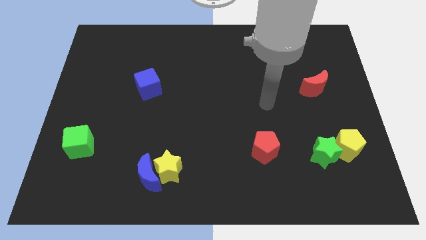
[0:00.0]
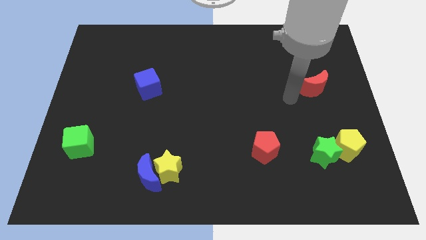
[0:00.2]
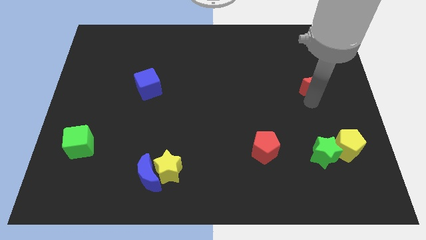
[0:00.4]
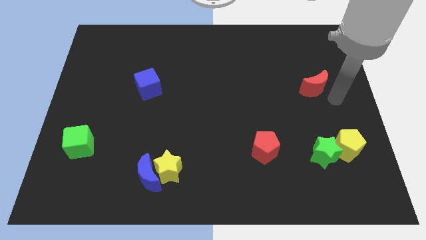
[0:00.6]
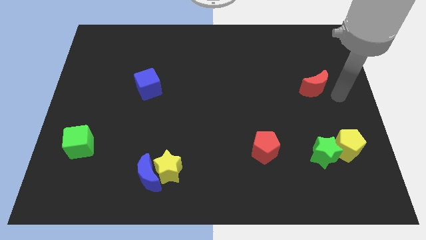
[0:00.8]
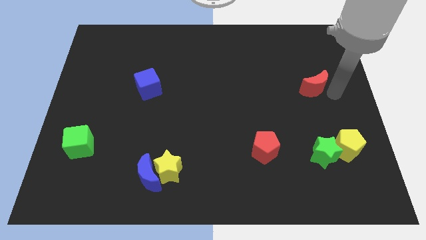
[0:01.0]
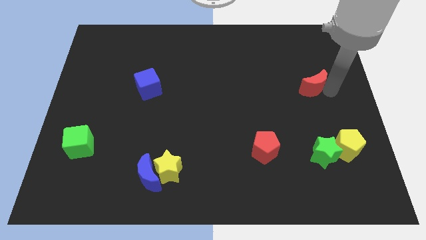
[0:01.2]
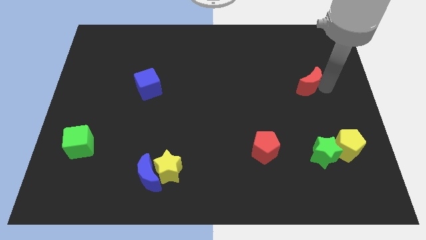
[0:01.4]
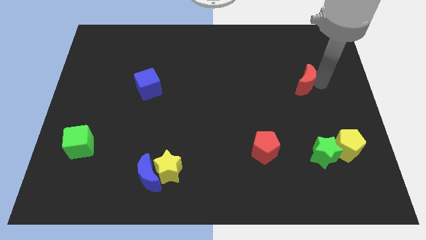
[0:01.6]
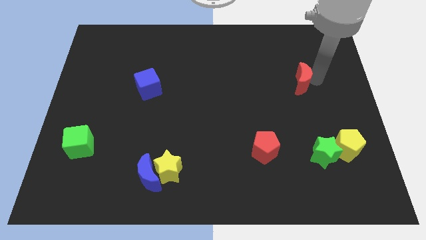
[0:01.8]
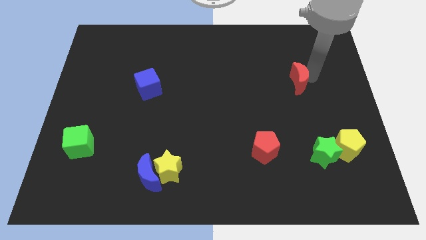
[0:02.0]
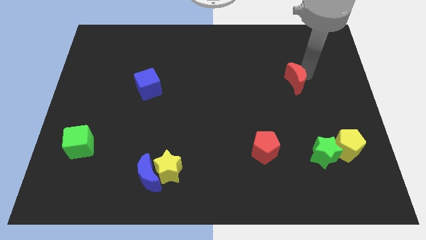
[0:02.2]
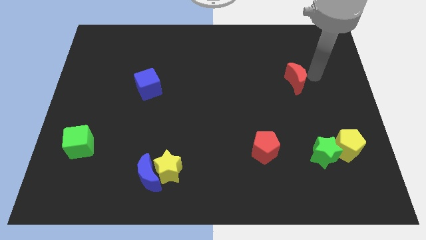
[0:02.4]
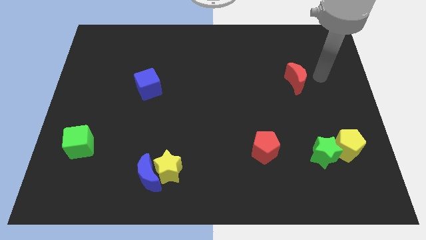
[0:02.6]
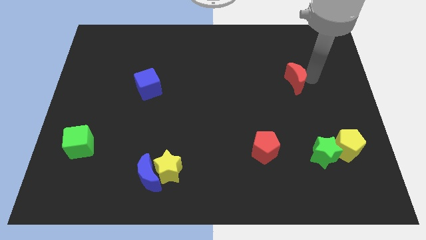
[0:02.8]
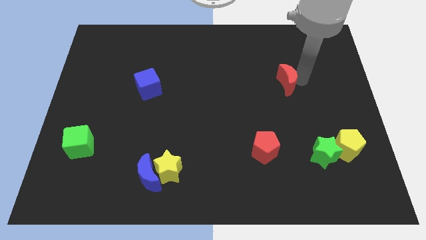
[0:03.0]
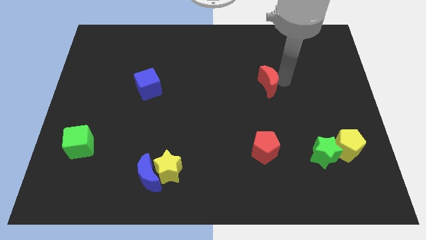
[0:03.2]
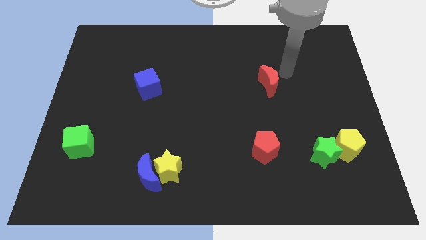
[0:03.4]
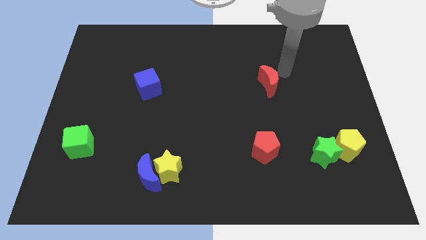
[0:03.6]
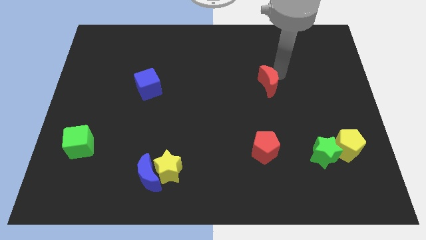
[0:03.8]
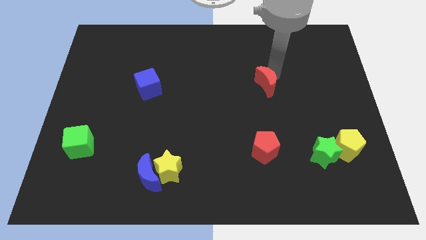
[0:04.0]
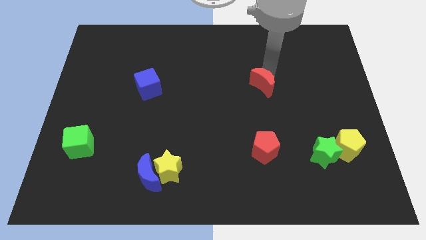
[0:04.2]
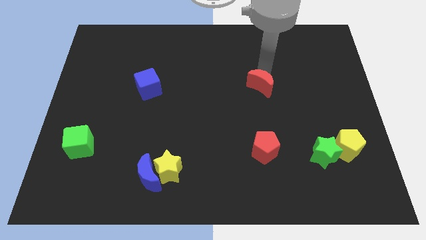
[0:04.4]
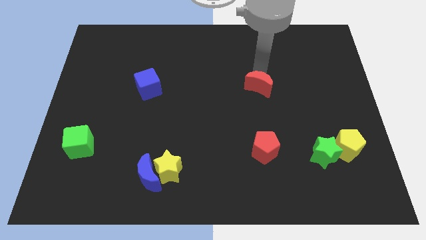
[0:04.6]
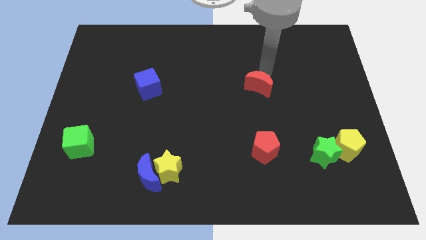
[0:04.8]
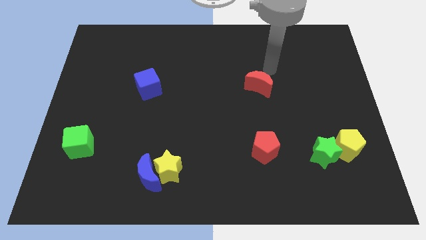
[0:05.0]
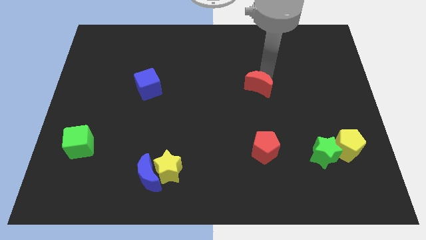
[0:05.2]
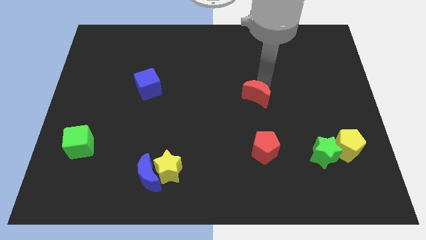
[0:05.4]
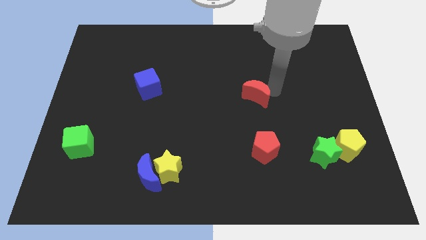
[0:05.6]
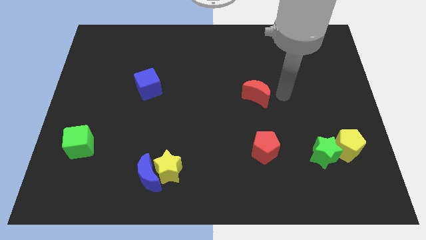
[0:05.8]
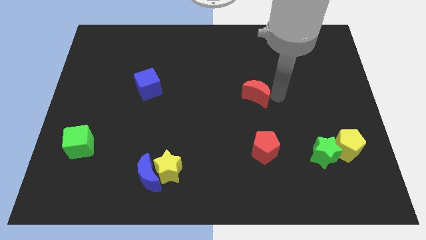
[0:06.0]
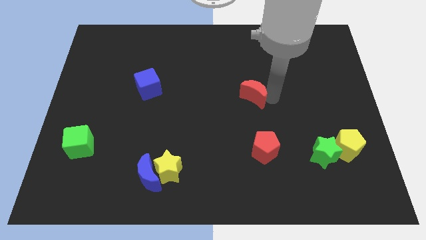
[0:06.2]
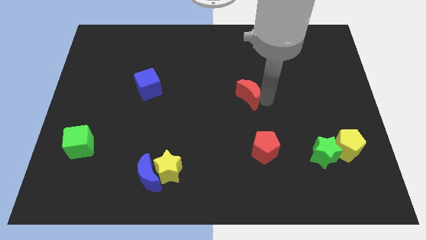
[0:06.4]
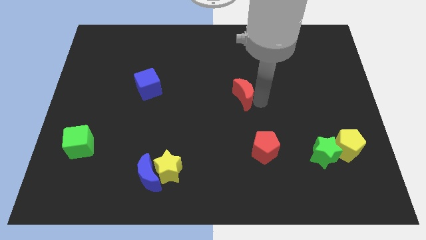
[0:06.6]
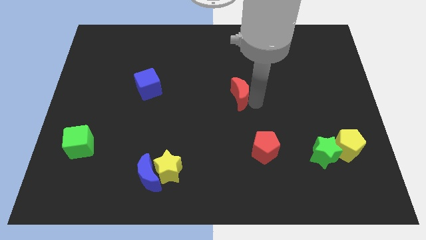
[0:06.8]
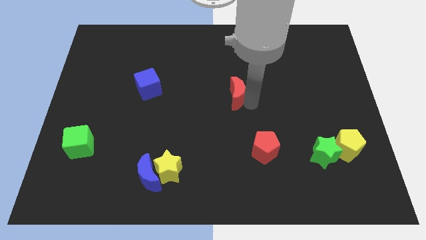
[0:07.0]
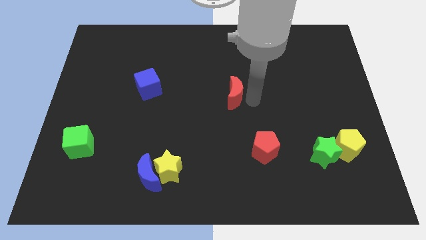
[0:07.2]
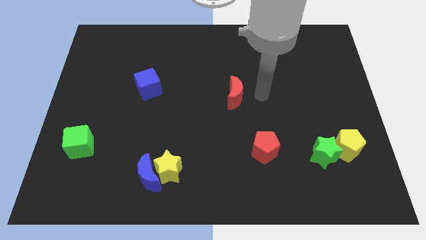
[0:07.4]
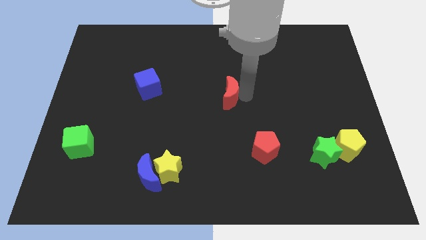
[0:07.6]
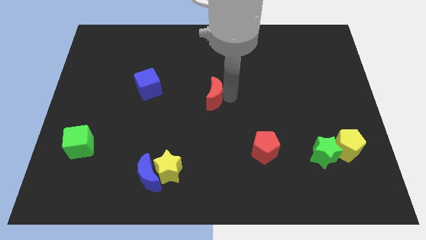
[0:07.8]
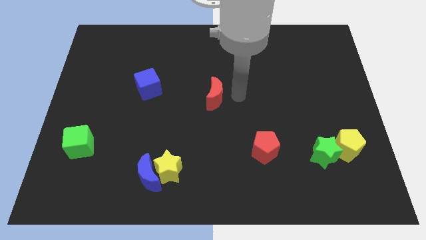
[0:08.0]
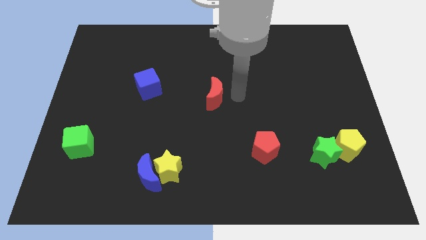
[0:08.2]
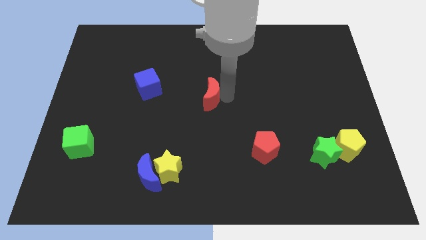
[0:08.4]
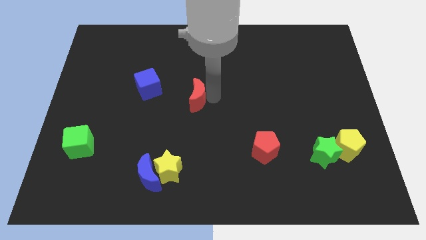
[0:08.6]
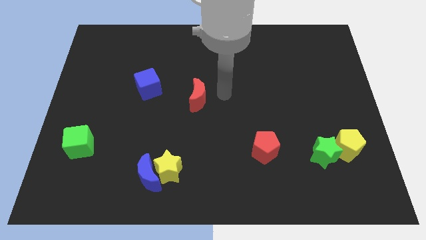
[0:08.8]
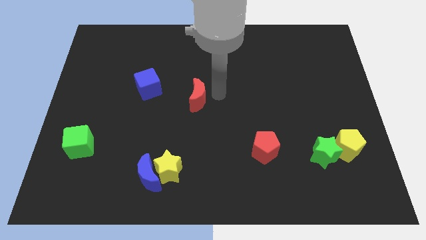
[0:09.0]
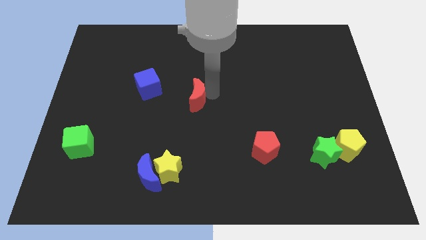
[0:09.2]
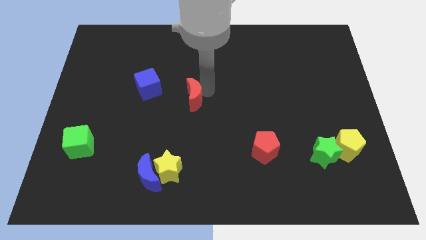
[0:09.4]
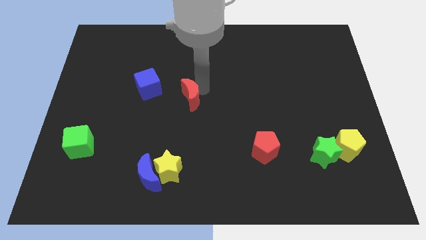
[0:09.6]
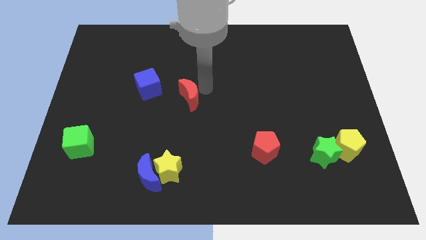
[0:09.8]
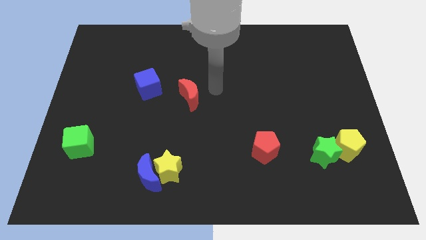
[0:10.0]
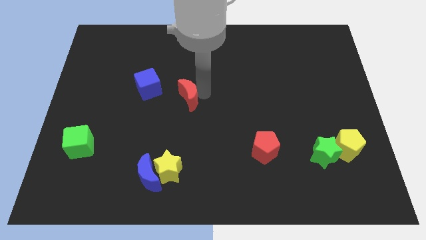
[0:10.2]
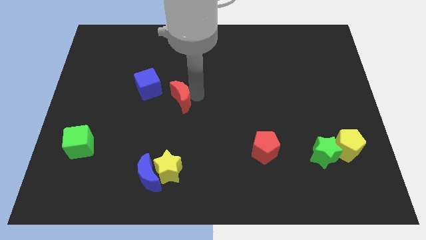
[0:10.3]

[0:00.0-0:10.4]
push the red moon diagonally down and to the right of the blue cube

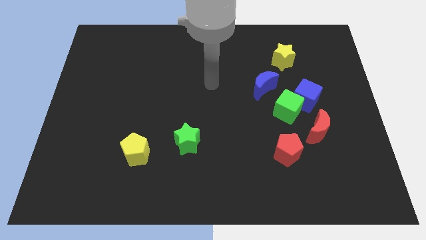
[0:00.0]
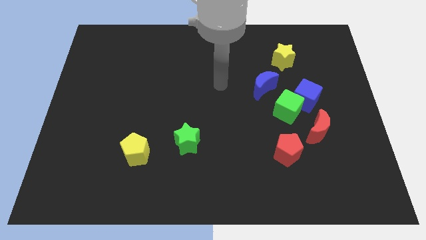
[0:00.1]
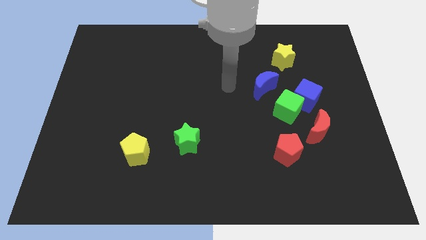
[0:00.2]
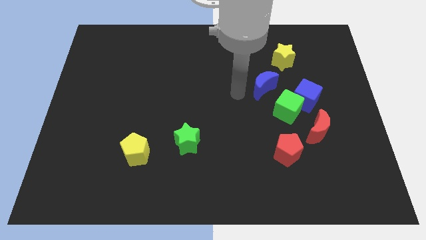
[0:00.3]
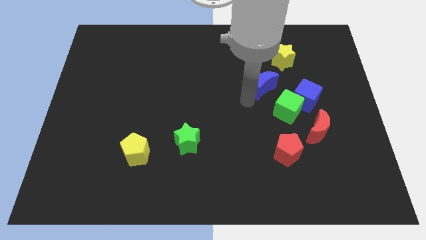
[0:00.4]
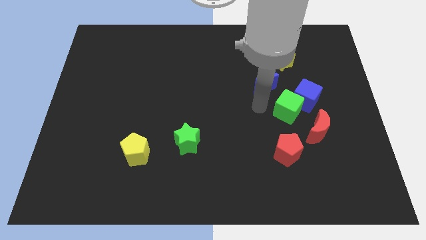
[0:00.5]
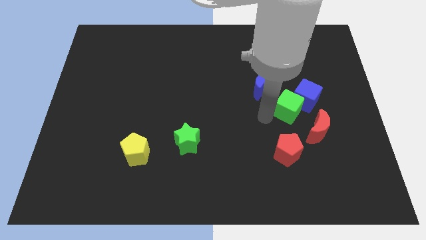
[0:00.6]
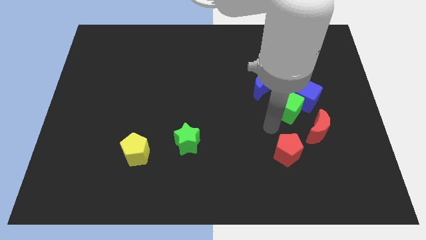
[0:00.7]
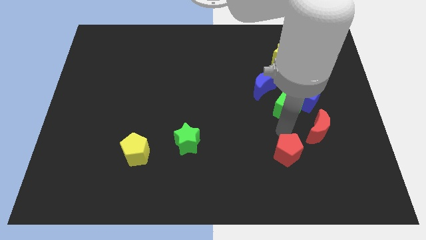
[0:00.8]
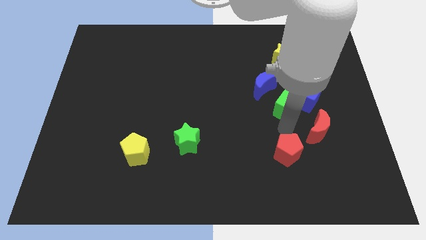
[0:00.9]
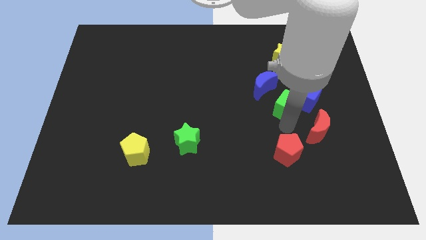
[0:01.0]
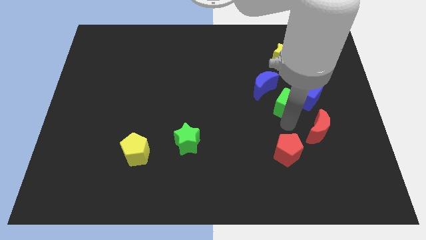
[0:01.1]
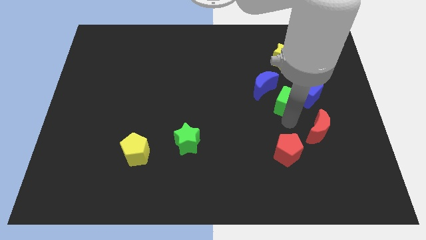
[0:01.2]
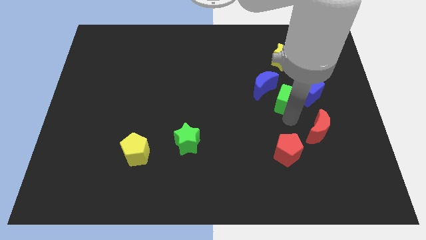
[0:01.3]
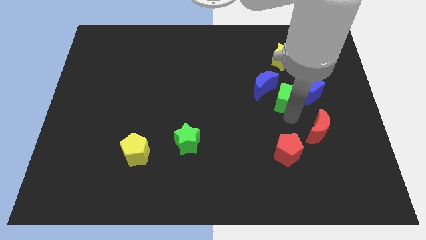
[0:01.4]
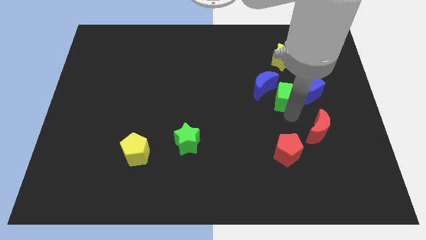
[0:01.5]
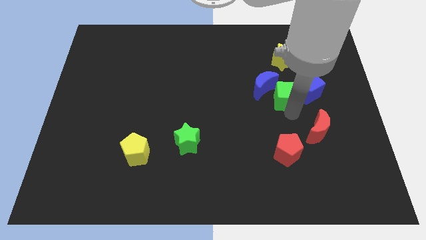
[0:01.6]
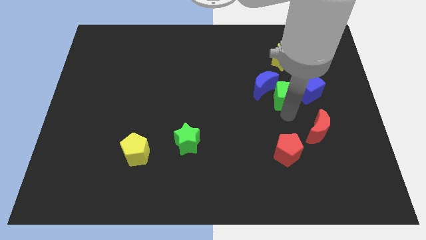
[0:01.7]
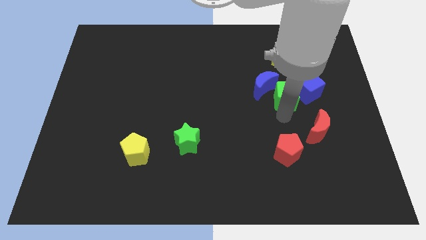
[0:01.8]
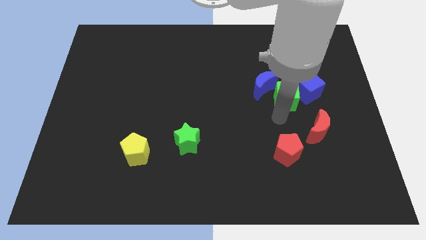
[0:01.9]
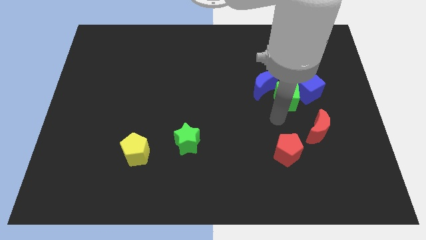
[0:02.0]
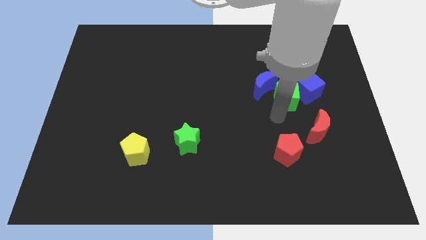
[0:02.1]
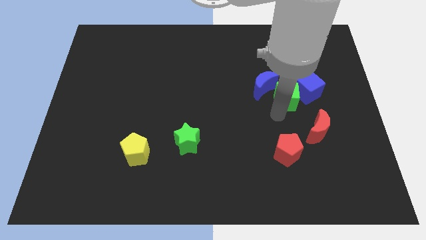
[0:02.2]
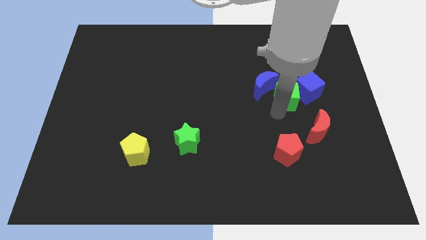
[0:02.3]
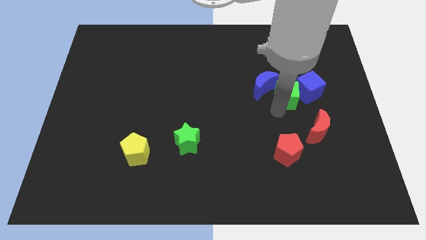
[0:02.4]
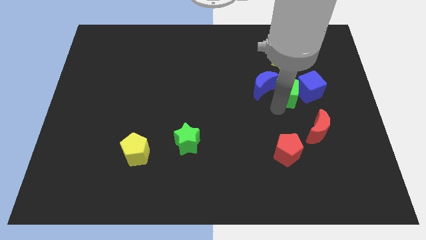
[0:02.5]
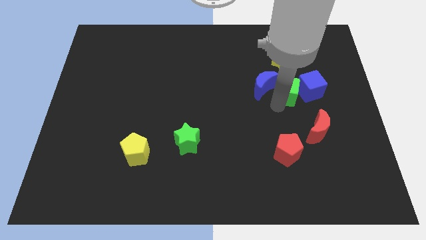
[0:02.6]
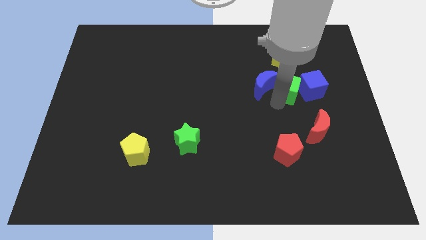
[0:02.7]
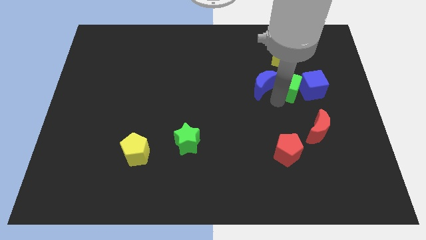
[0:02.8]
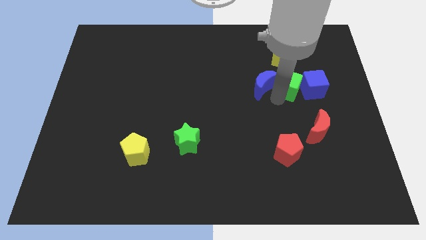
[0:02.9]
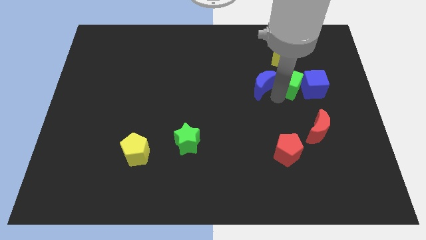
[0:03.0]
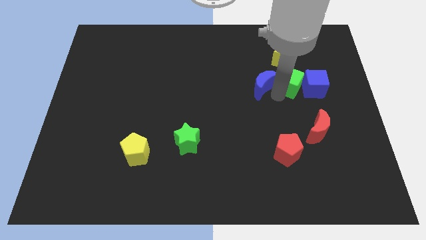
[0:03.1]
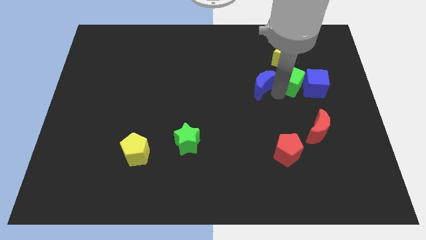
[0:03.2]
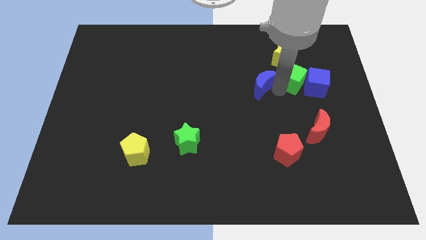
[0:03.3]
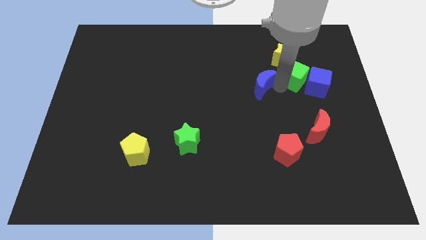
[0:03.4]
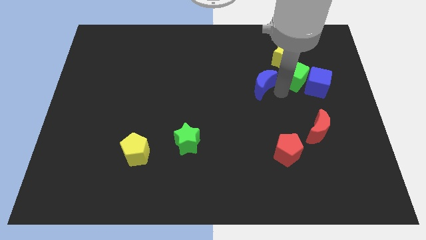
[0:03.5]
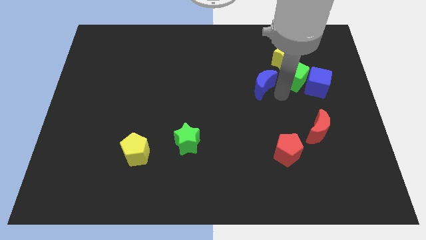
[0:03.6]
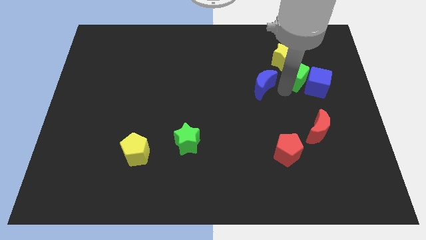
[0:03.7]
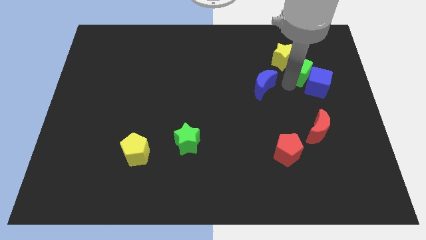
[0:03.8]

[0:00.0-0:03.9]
push the green cube to the top side of the blue cube
